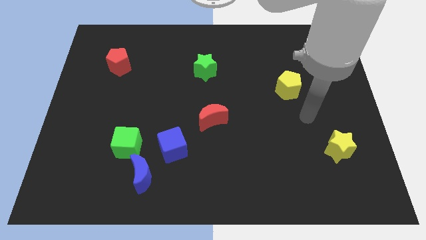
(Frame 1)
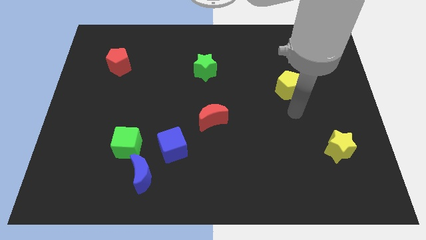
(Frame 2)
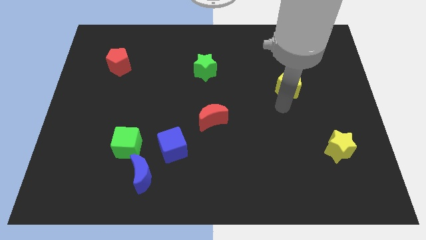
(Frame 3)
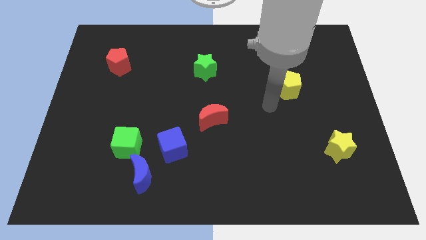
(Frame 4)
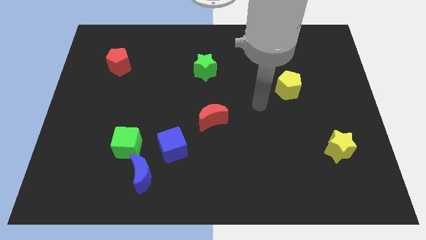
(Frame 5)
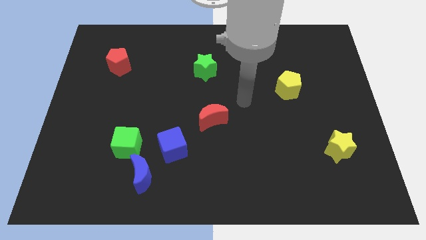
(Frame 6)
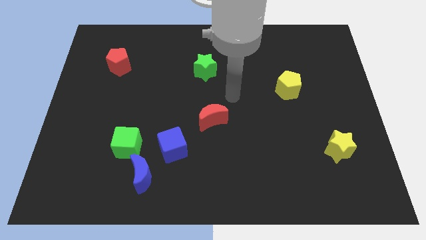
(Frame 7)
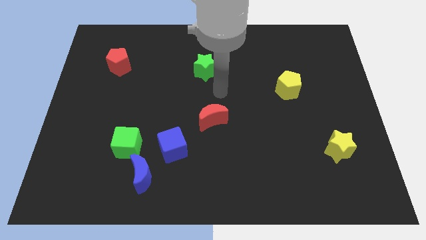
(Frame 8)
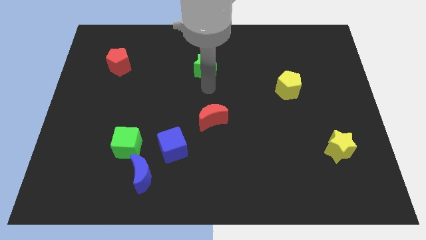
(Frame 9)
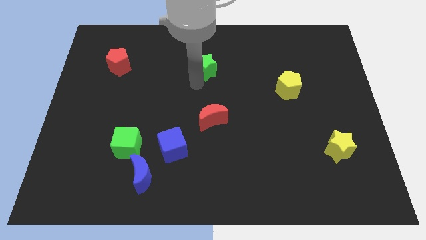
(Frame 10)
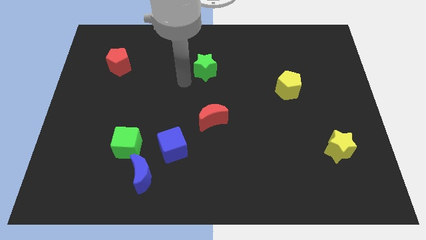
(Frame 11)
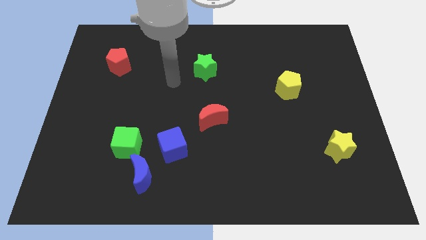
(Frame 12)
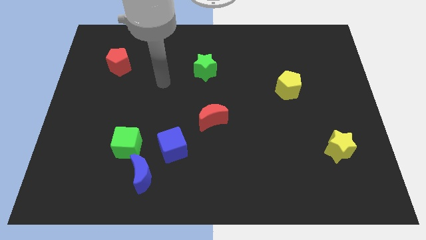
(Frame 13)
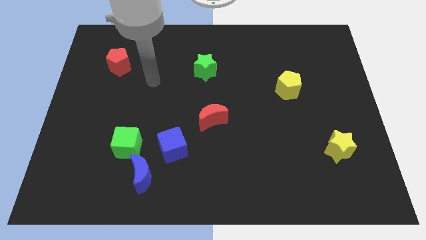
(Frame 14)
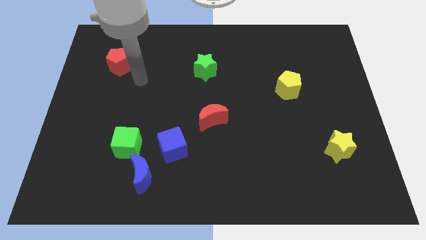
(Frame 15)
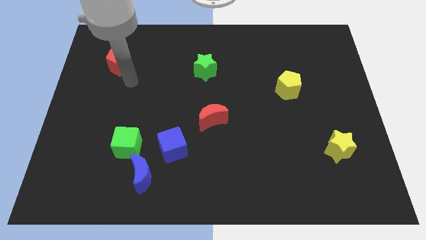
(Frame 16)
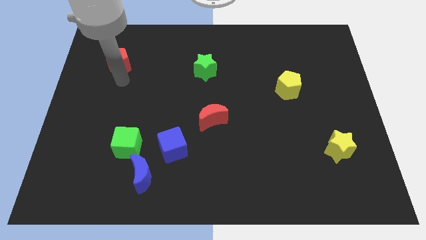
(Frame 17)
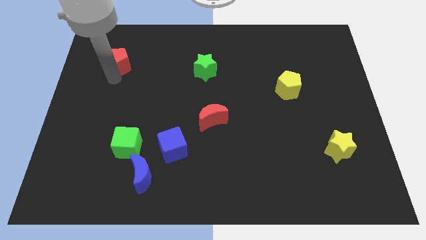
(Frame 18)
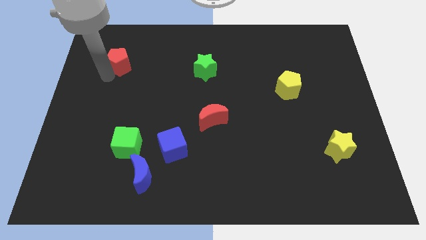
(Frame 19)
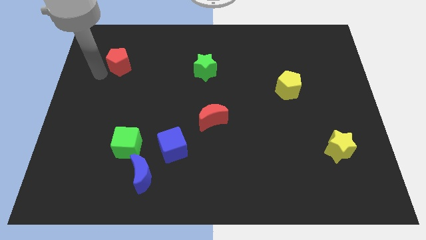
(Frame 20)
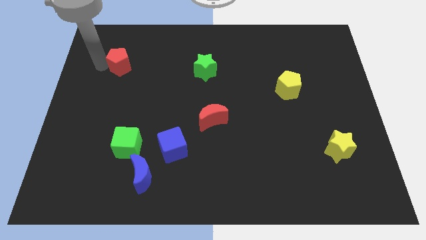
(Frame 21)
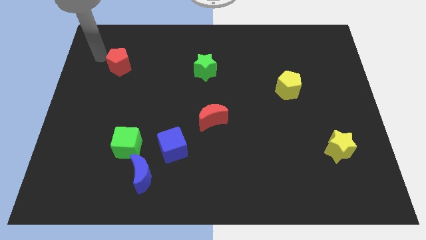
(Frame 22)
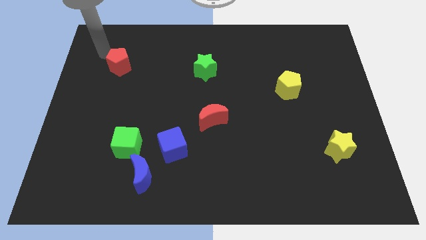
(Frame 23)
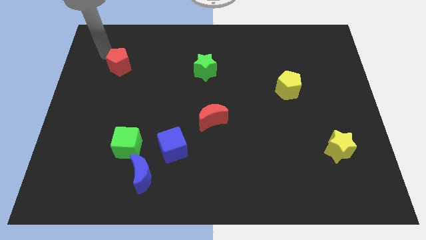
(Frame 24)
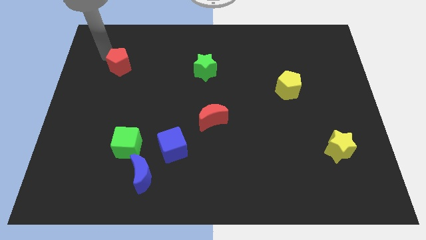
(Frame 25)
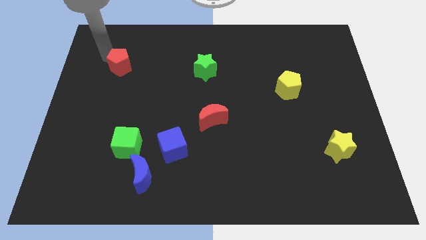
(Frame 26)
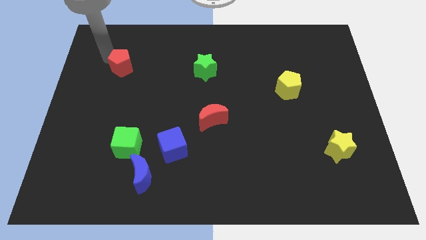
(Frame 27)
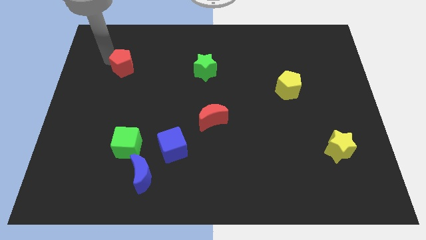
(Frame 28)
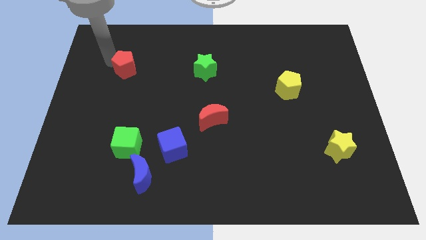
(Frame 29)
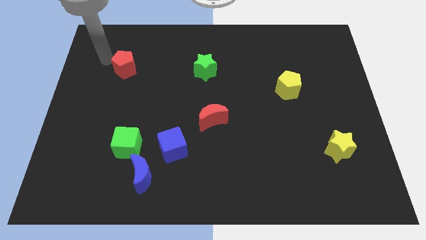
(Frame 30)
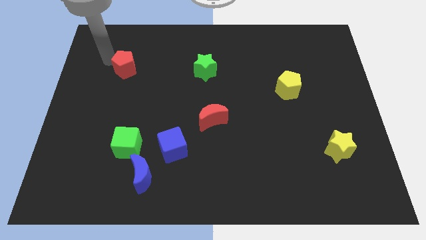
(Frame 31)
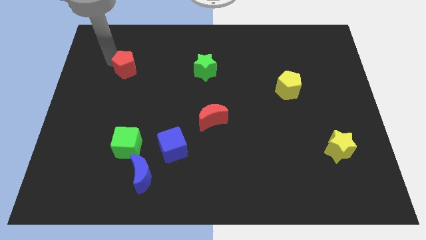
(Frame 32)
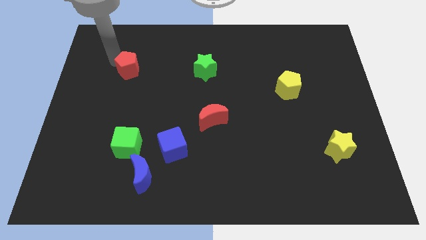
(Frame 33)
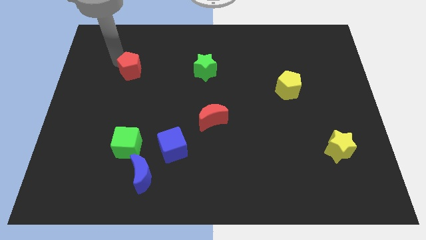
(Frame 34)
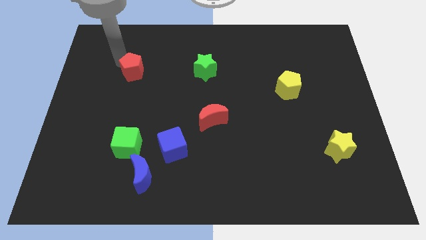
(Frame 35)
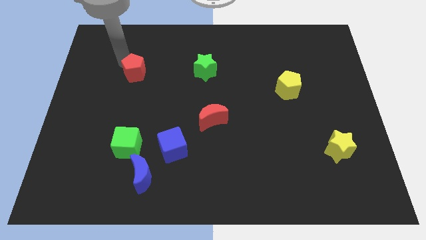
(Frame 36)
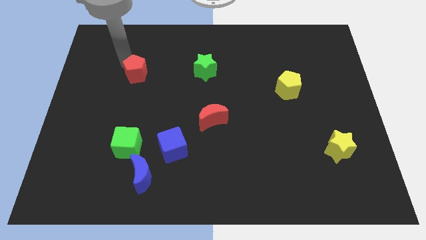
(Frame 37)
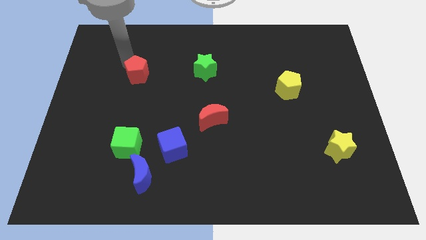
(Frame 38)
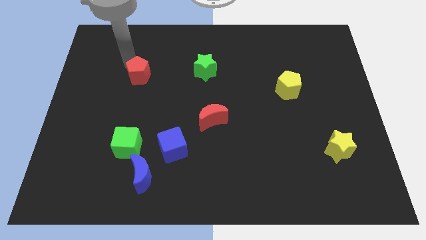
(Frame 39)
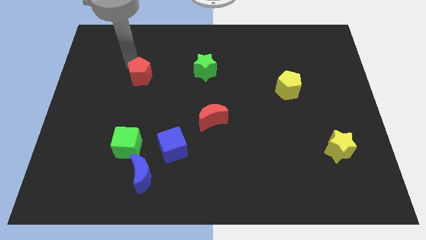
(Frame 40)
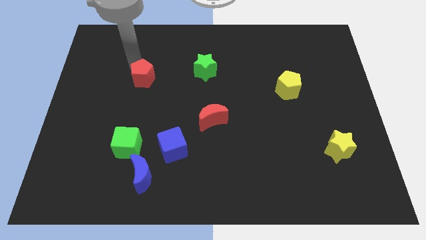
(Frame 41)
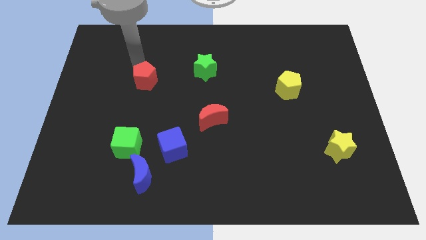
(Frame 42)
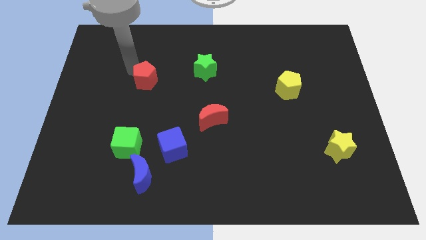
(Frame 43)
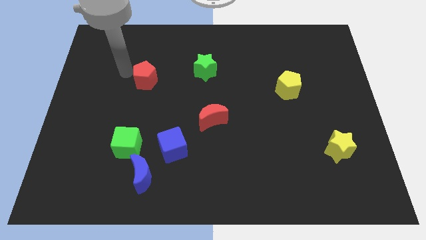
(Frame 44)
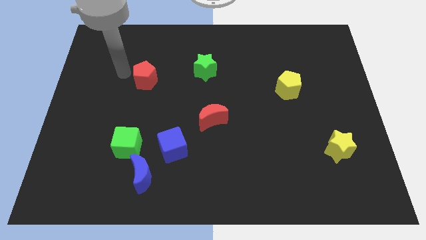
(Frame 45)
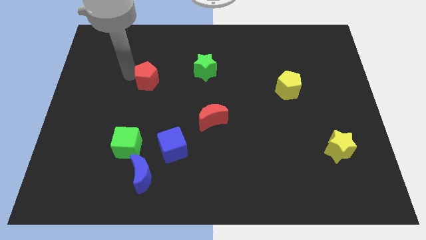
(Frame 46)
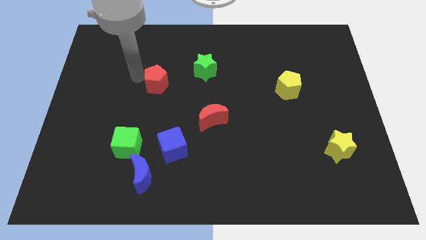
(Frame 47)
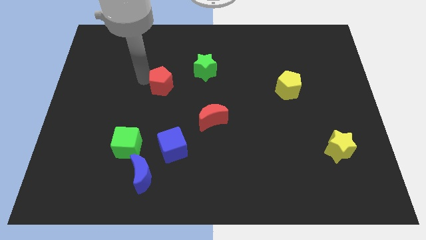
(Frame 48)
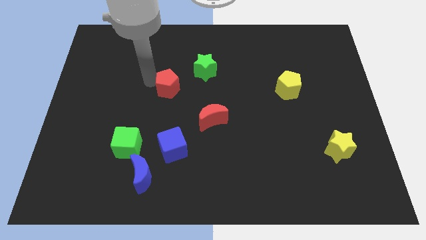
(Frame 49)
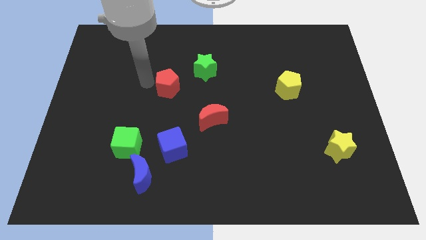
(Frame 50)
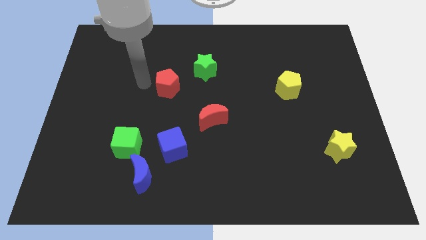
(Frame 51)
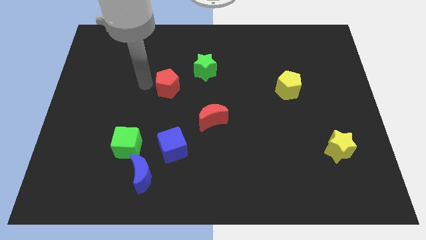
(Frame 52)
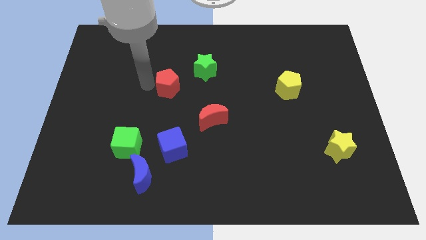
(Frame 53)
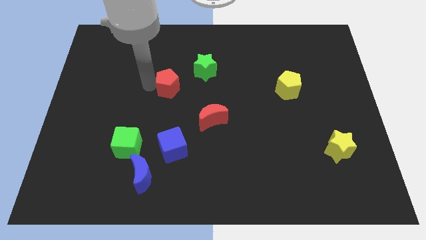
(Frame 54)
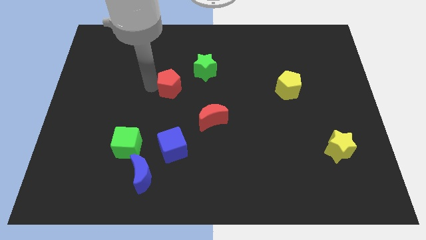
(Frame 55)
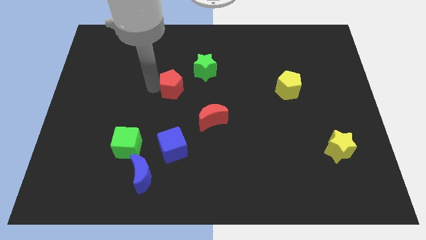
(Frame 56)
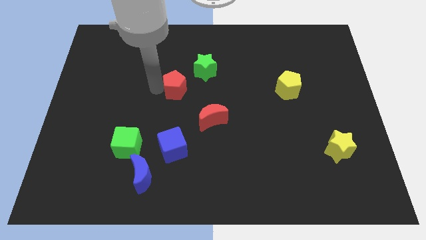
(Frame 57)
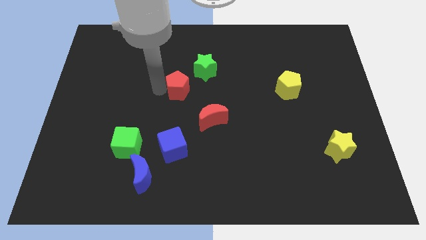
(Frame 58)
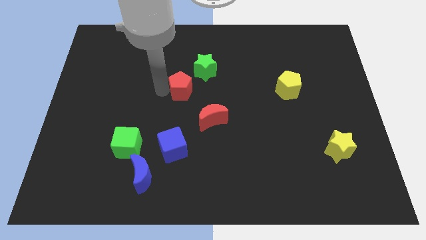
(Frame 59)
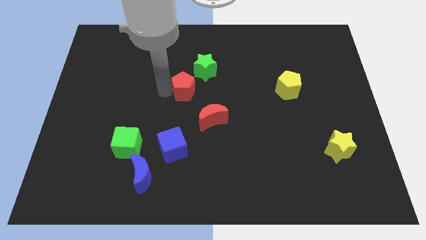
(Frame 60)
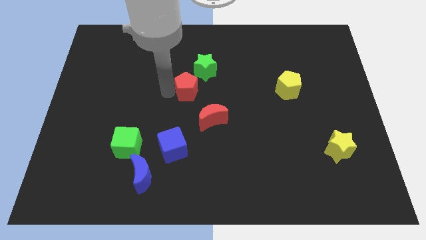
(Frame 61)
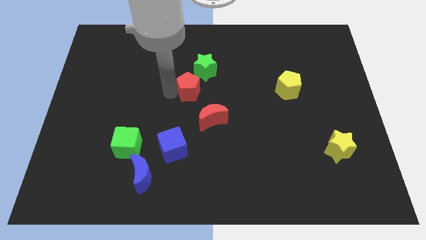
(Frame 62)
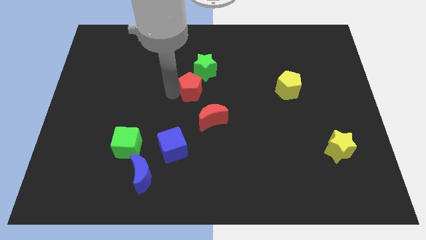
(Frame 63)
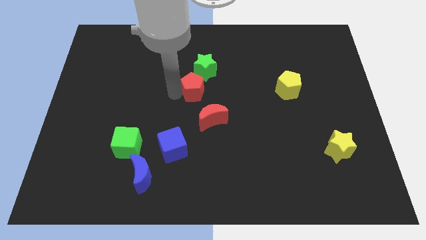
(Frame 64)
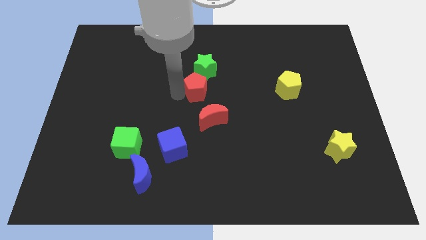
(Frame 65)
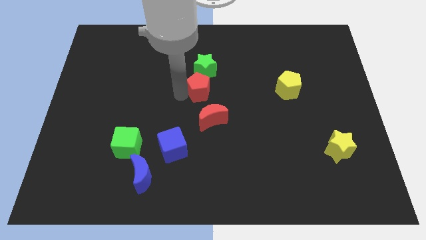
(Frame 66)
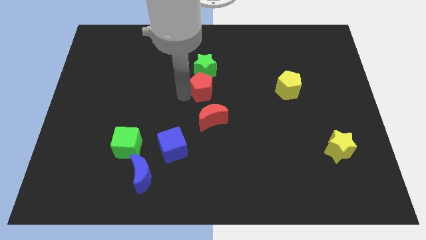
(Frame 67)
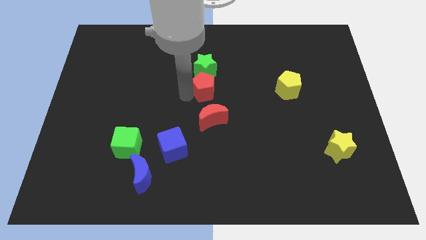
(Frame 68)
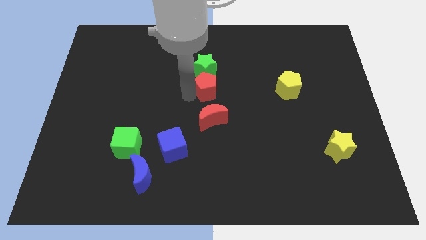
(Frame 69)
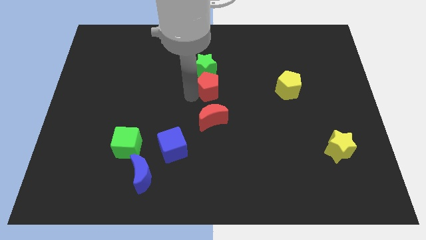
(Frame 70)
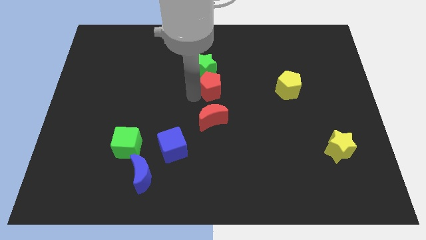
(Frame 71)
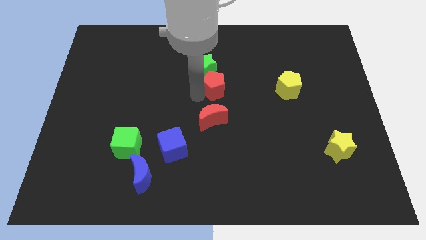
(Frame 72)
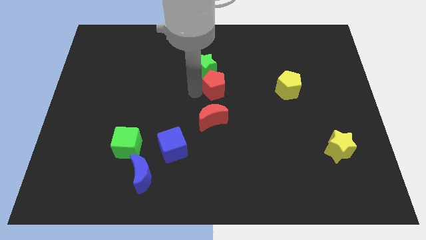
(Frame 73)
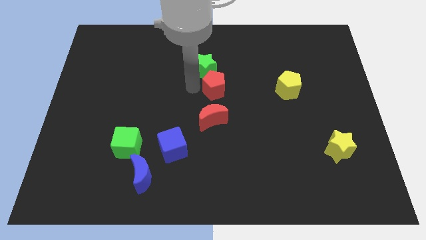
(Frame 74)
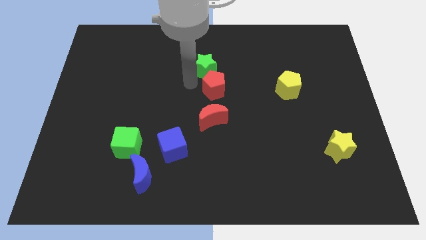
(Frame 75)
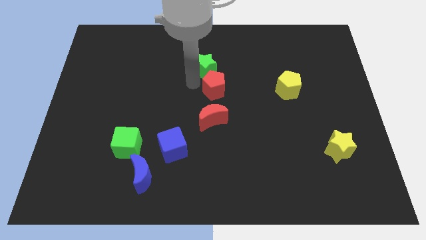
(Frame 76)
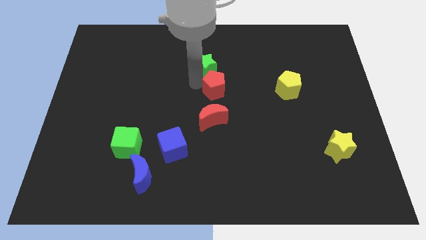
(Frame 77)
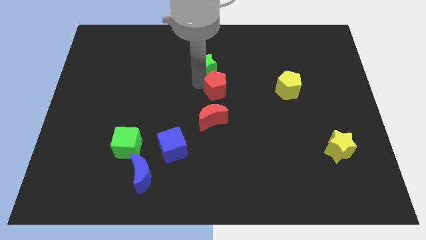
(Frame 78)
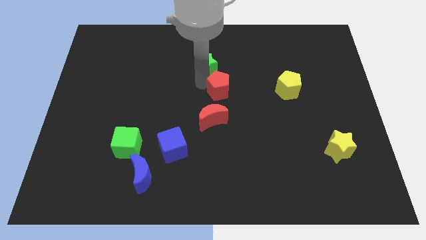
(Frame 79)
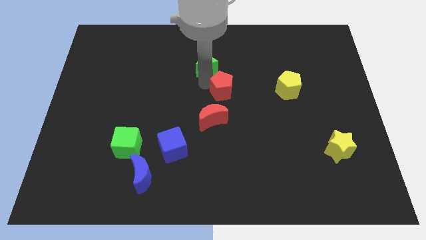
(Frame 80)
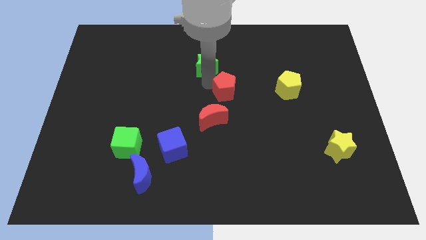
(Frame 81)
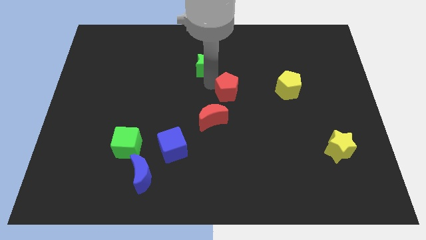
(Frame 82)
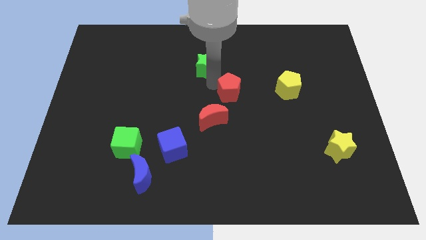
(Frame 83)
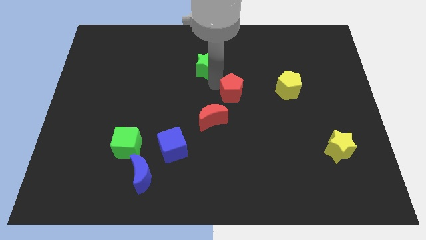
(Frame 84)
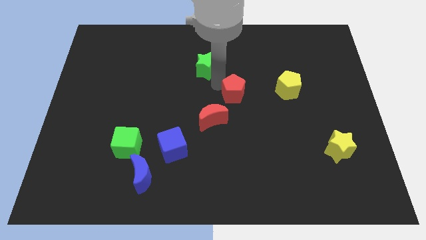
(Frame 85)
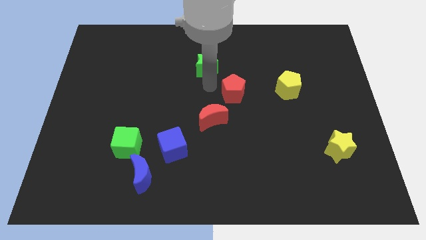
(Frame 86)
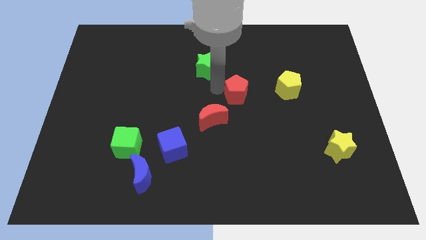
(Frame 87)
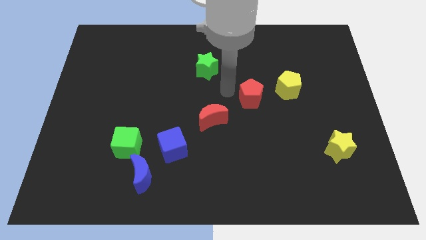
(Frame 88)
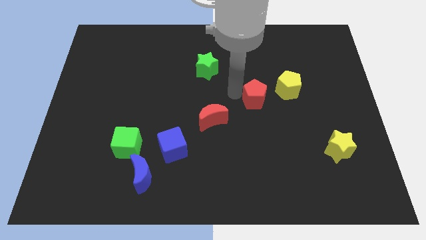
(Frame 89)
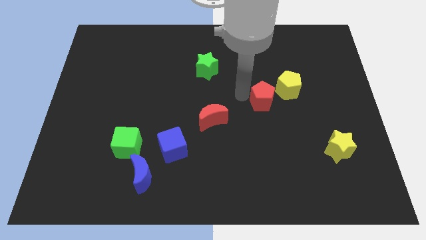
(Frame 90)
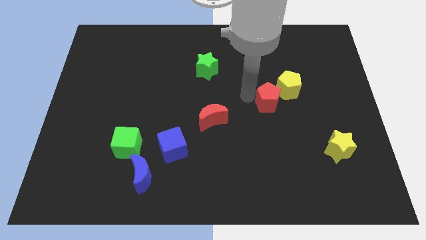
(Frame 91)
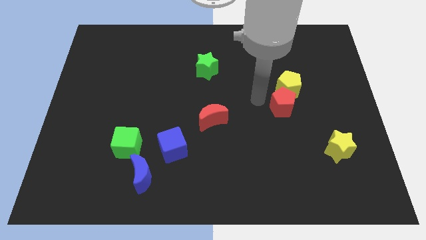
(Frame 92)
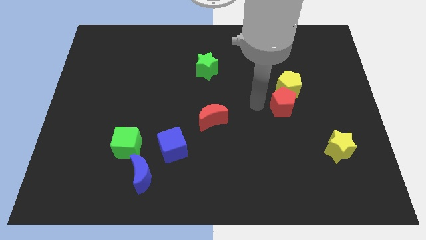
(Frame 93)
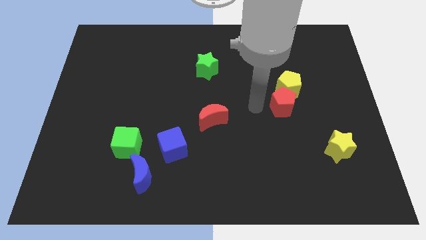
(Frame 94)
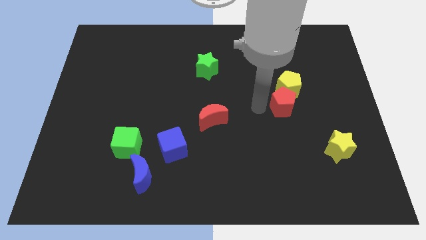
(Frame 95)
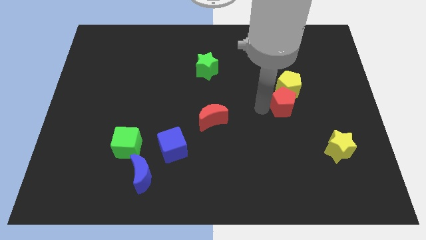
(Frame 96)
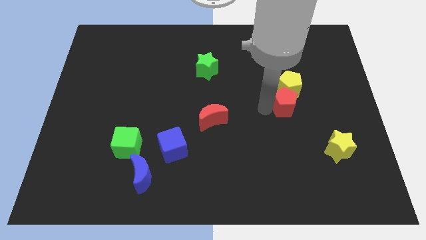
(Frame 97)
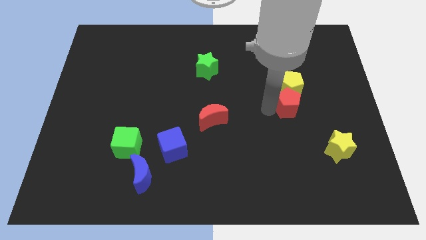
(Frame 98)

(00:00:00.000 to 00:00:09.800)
push the red pentagon to the bottom right of the yellow pentagon
